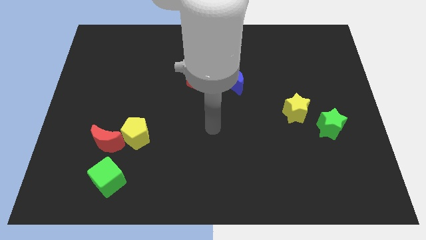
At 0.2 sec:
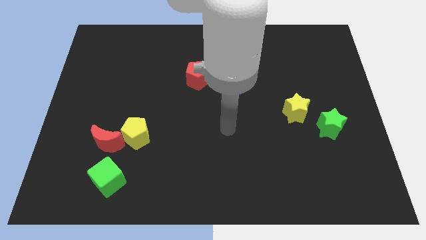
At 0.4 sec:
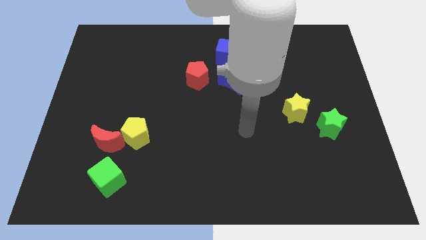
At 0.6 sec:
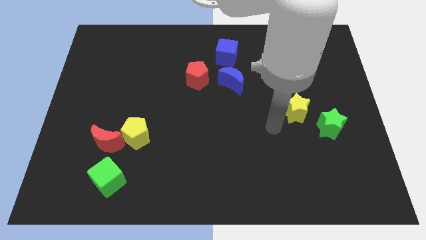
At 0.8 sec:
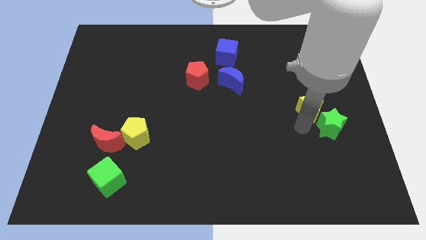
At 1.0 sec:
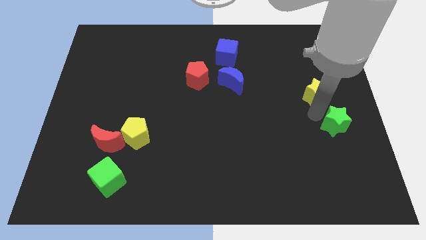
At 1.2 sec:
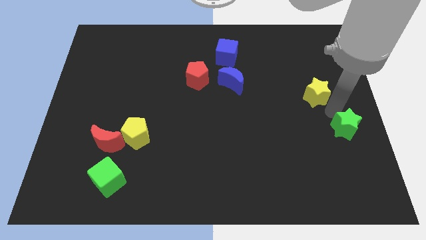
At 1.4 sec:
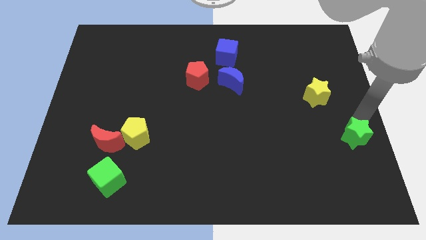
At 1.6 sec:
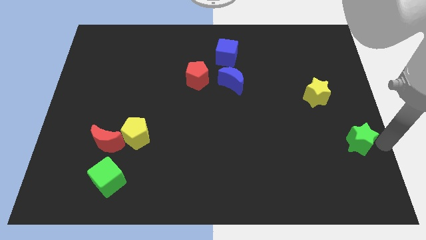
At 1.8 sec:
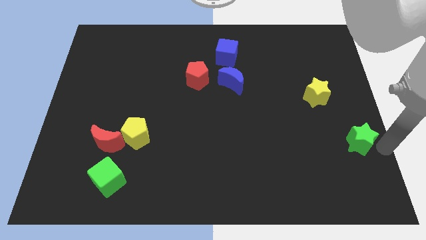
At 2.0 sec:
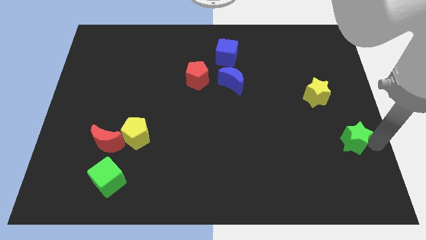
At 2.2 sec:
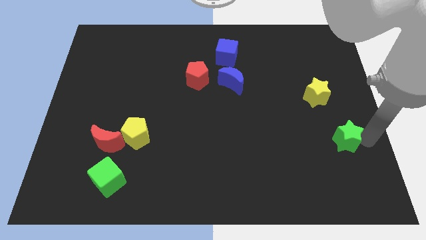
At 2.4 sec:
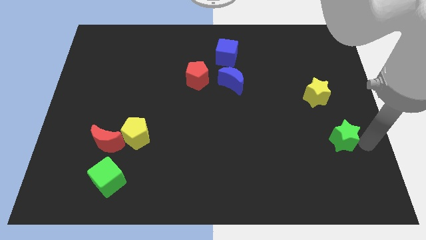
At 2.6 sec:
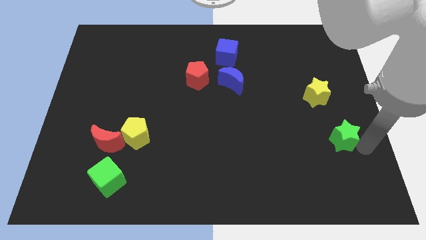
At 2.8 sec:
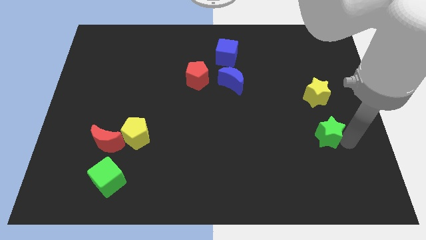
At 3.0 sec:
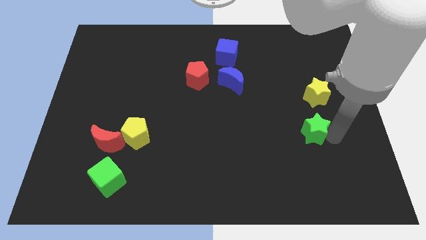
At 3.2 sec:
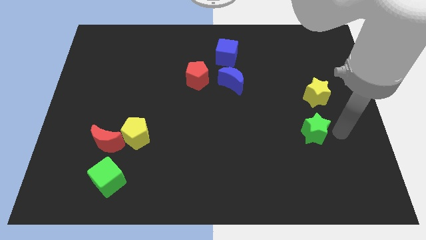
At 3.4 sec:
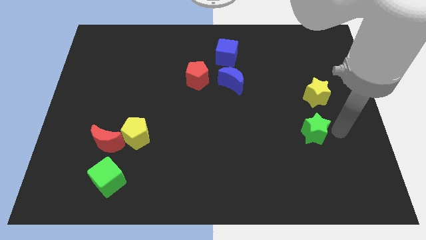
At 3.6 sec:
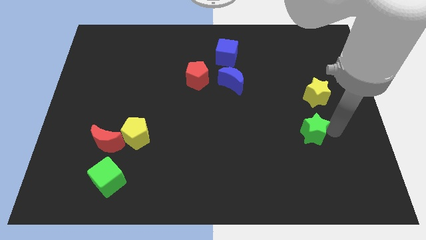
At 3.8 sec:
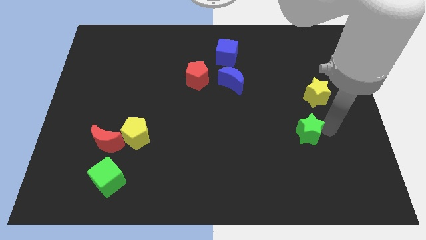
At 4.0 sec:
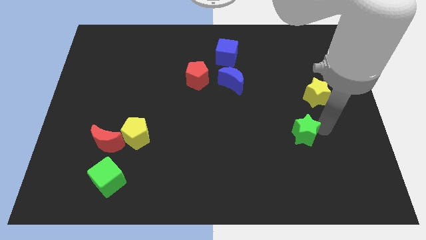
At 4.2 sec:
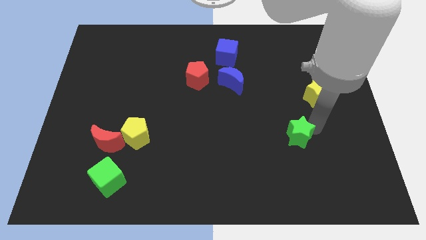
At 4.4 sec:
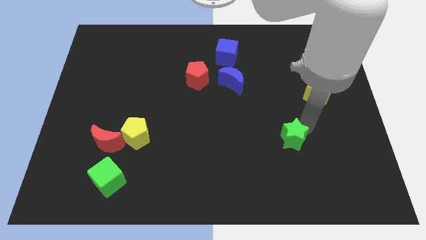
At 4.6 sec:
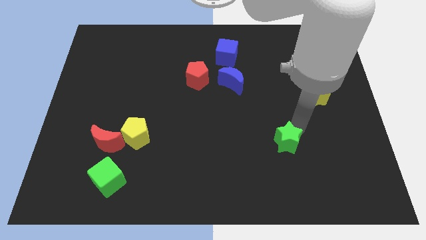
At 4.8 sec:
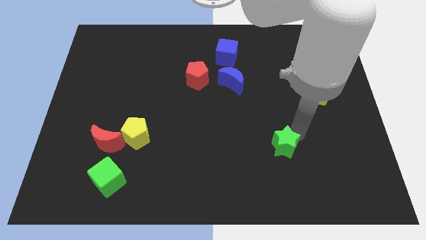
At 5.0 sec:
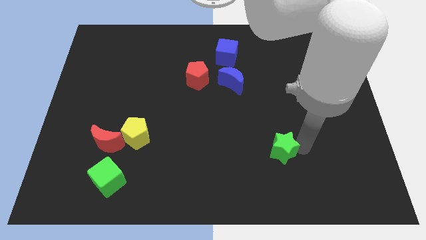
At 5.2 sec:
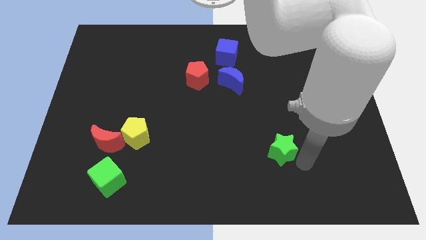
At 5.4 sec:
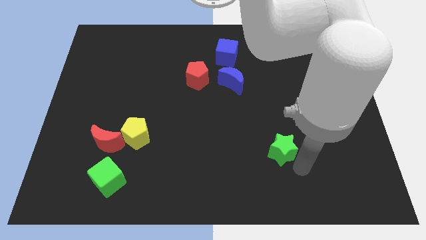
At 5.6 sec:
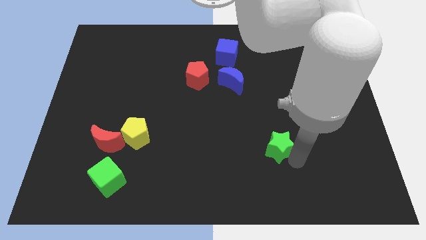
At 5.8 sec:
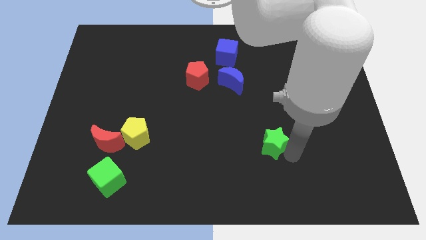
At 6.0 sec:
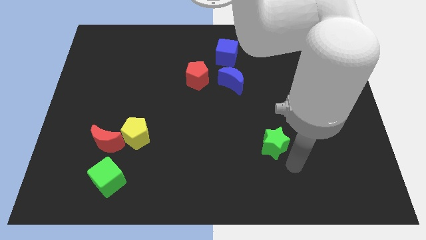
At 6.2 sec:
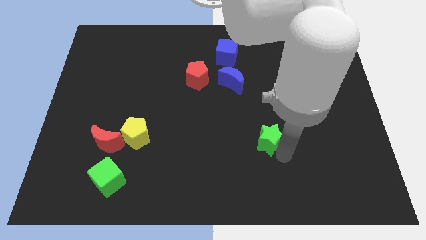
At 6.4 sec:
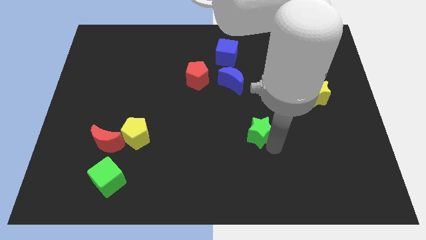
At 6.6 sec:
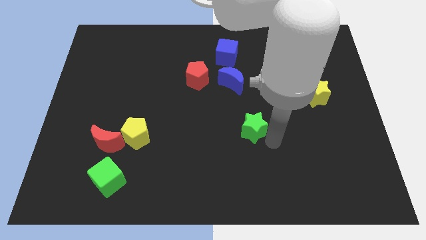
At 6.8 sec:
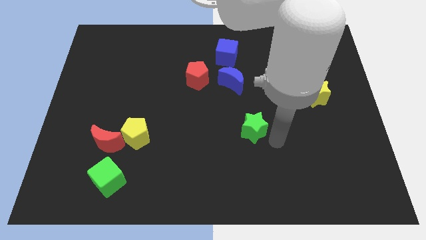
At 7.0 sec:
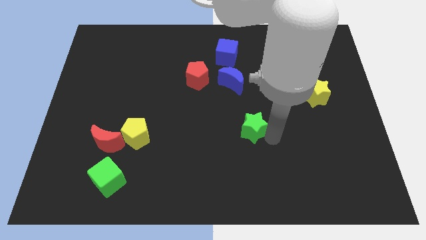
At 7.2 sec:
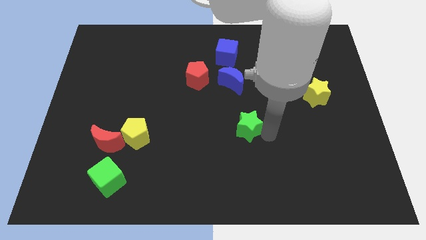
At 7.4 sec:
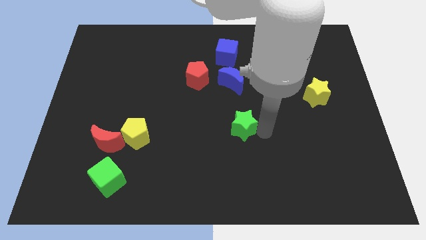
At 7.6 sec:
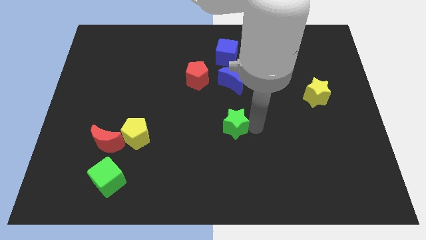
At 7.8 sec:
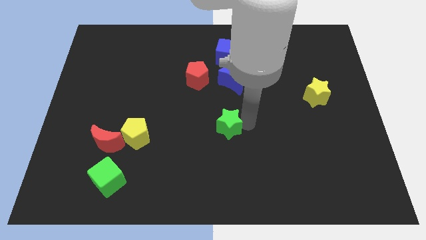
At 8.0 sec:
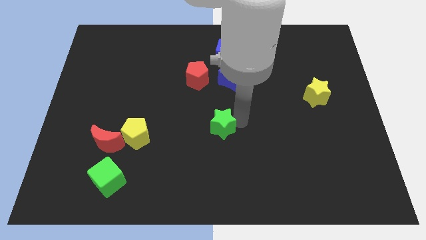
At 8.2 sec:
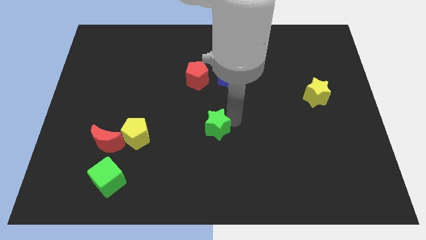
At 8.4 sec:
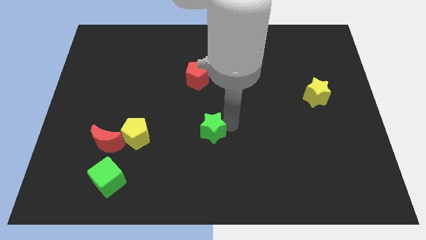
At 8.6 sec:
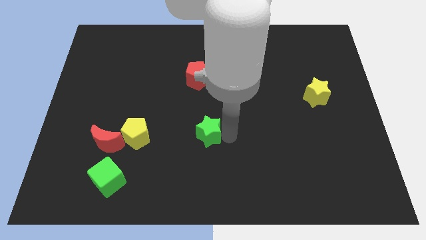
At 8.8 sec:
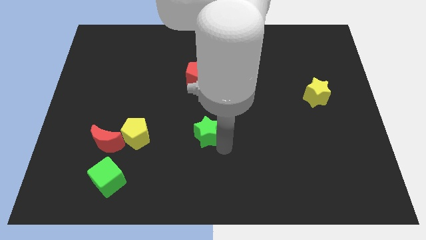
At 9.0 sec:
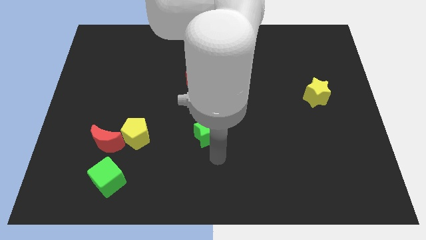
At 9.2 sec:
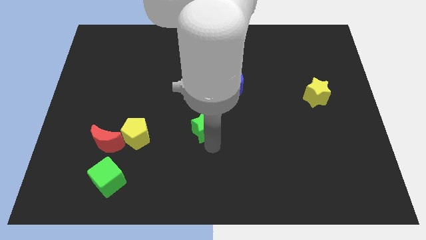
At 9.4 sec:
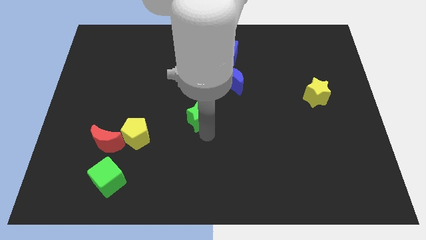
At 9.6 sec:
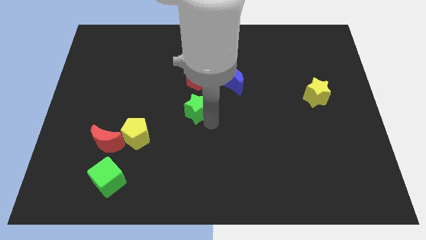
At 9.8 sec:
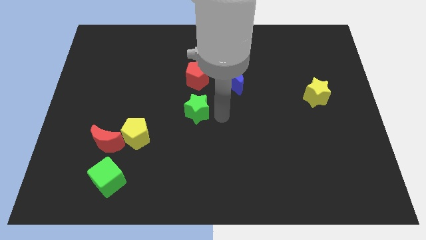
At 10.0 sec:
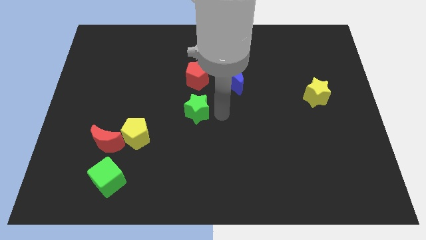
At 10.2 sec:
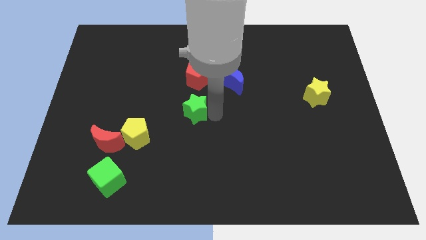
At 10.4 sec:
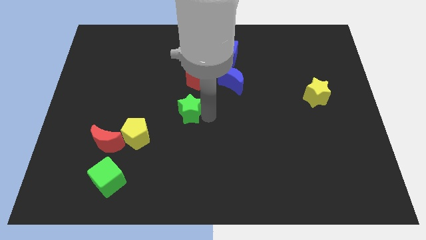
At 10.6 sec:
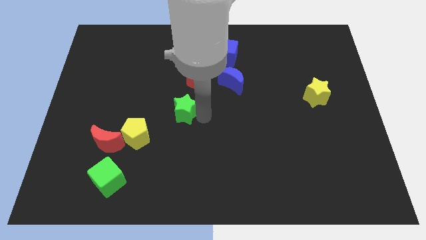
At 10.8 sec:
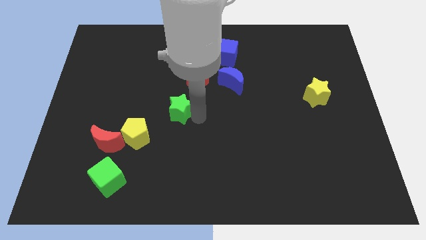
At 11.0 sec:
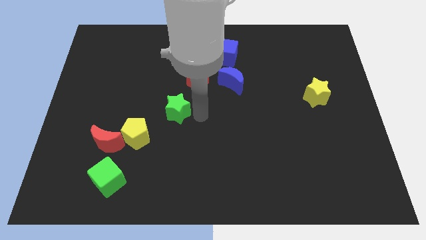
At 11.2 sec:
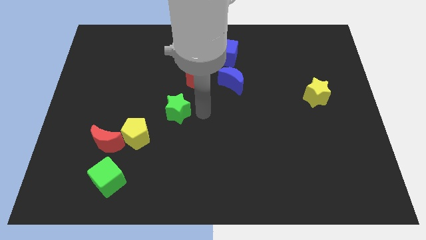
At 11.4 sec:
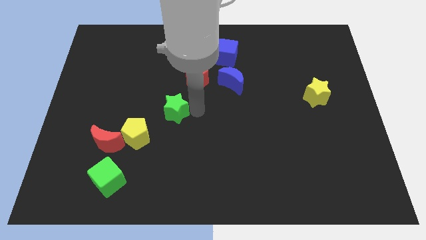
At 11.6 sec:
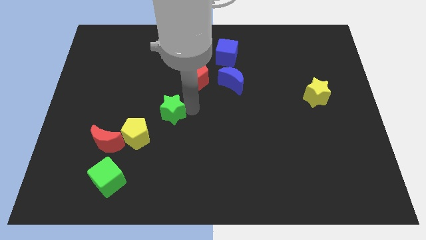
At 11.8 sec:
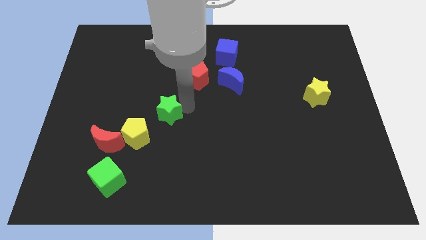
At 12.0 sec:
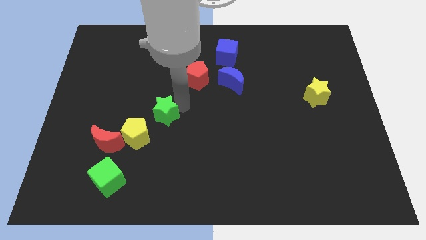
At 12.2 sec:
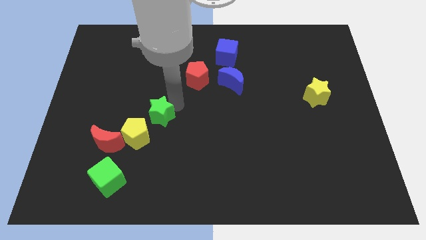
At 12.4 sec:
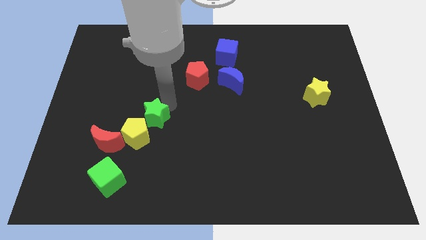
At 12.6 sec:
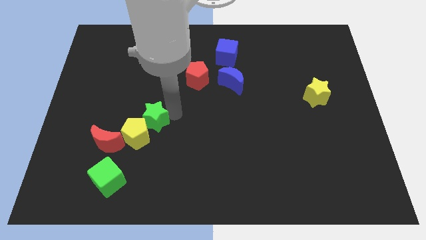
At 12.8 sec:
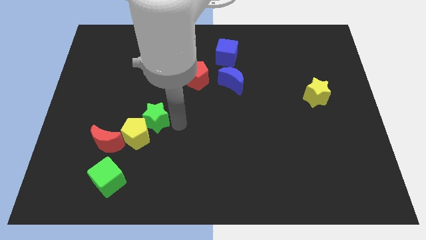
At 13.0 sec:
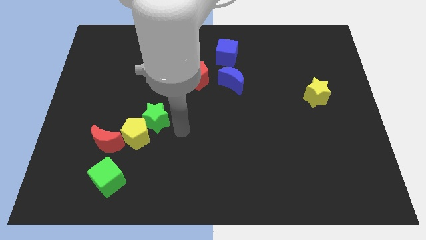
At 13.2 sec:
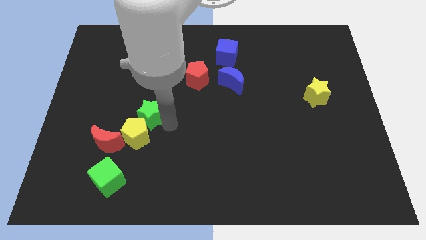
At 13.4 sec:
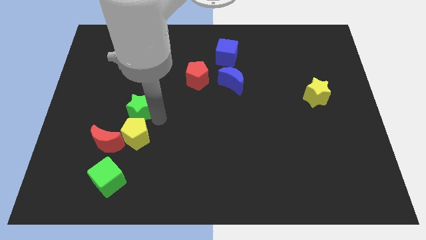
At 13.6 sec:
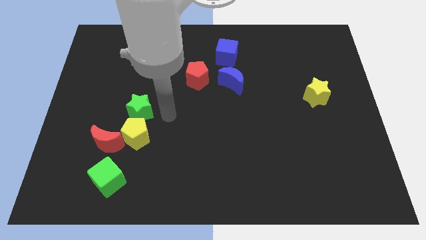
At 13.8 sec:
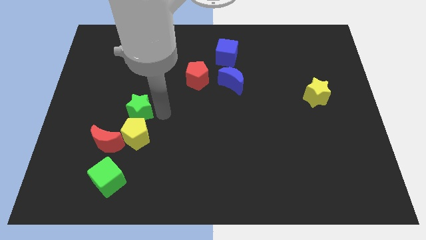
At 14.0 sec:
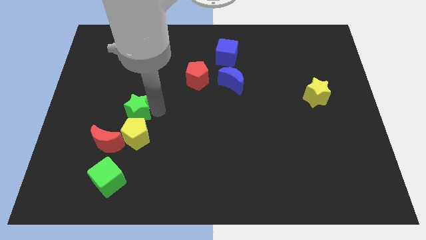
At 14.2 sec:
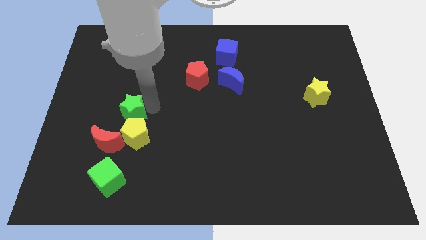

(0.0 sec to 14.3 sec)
slide the green star above the red moon

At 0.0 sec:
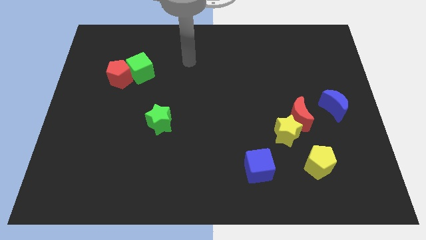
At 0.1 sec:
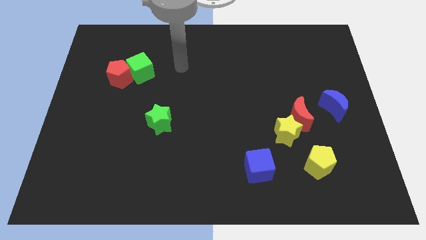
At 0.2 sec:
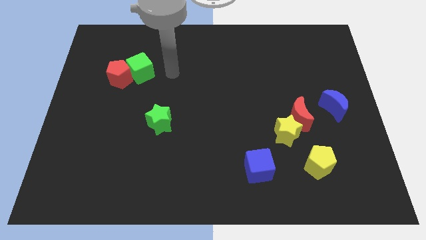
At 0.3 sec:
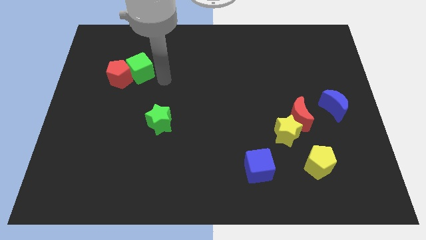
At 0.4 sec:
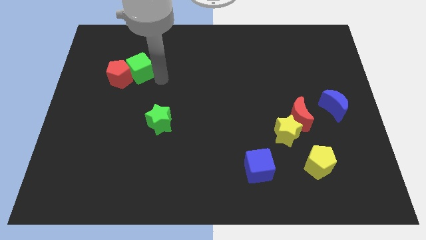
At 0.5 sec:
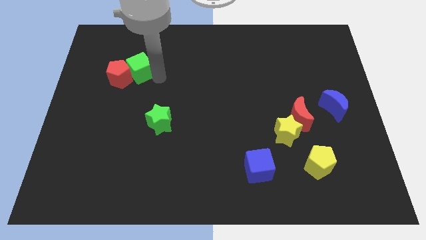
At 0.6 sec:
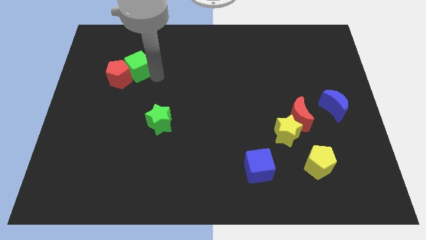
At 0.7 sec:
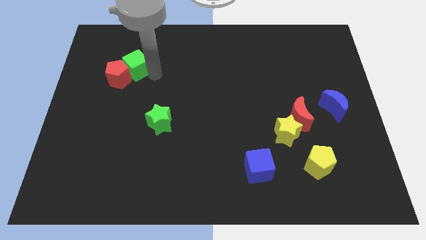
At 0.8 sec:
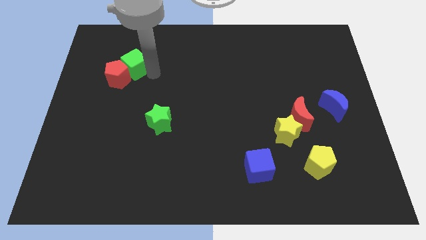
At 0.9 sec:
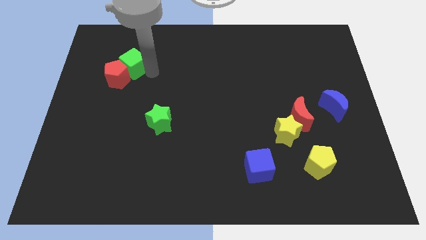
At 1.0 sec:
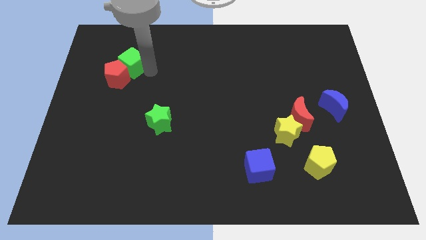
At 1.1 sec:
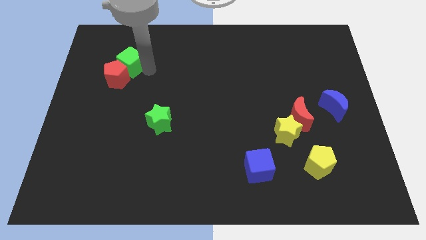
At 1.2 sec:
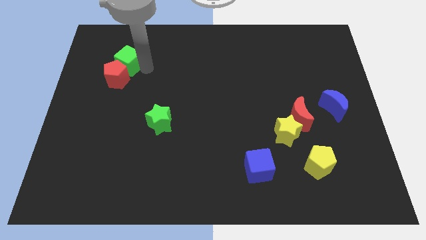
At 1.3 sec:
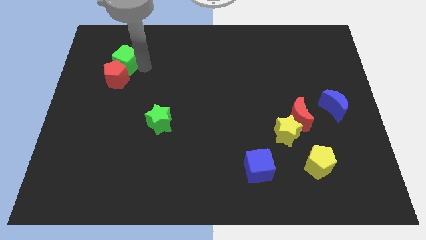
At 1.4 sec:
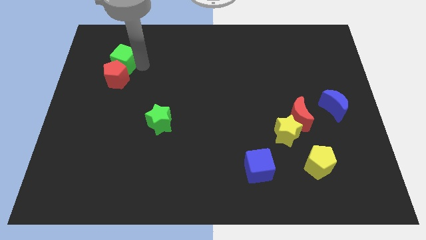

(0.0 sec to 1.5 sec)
put the green cube to the top left of the red pentagon
